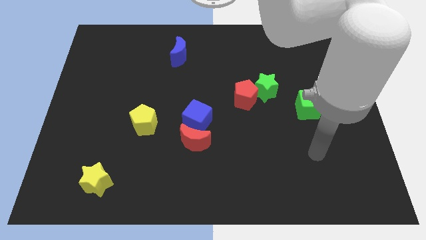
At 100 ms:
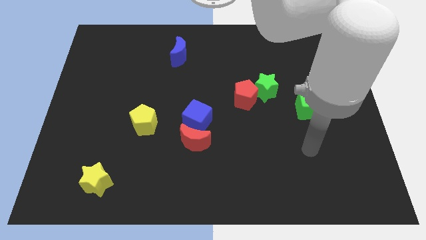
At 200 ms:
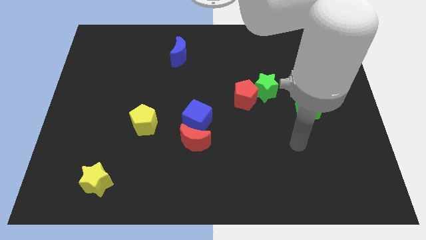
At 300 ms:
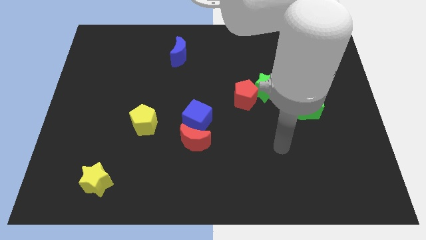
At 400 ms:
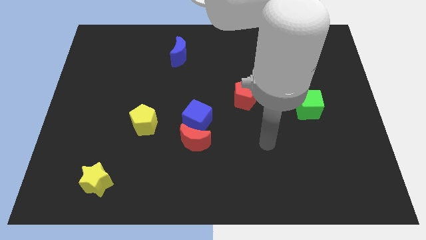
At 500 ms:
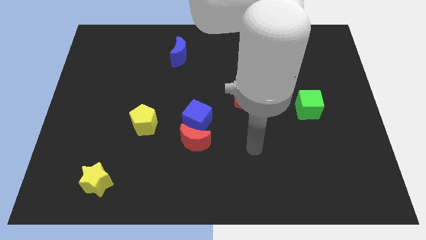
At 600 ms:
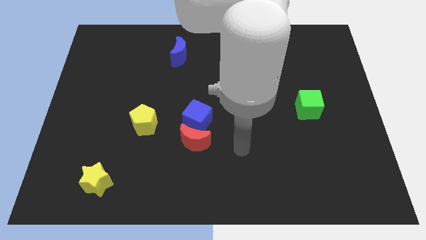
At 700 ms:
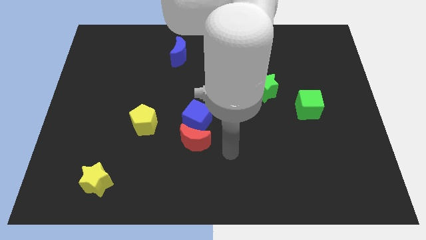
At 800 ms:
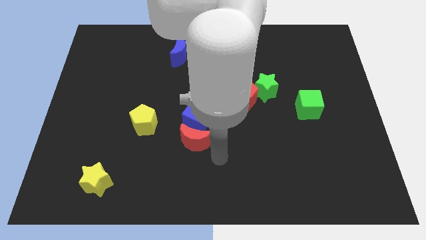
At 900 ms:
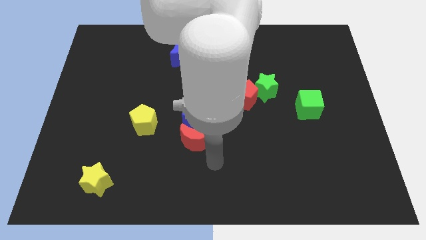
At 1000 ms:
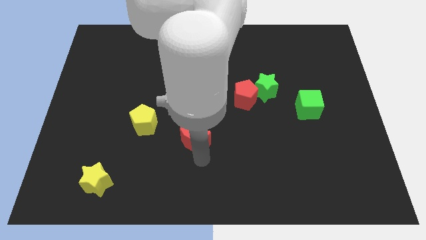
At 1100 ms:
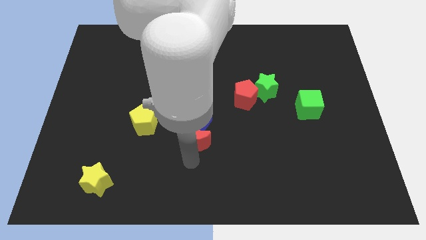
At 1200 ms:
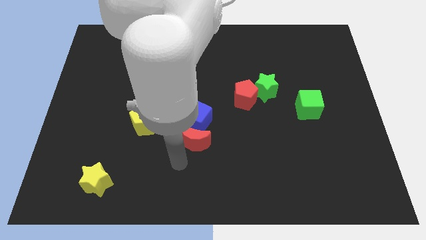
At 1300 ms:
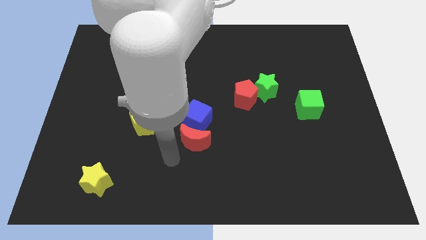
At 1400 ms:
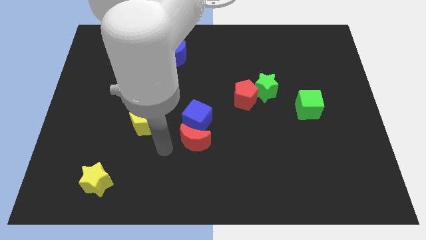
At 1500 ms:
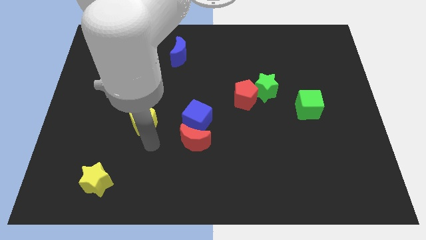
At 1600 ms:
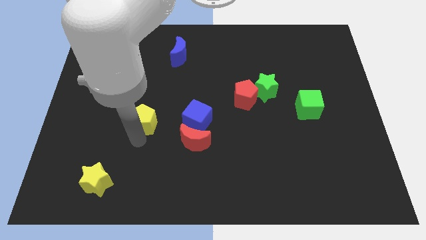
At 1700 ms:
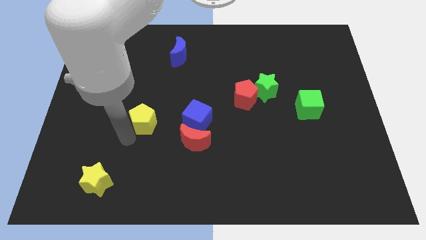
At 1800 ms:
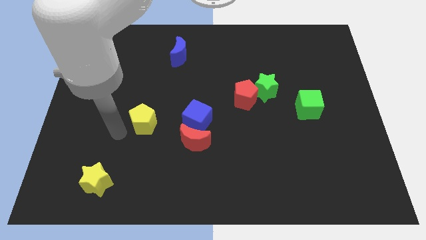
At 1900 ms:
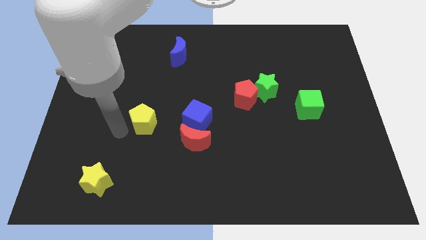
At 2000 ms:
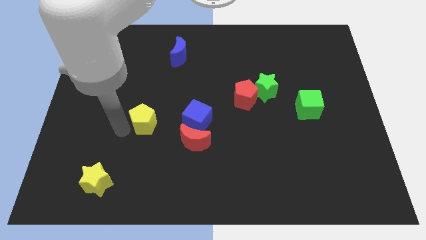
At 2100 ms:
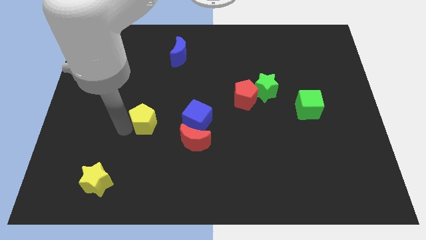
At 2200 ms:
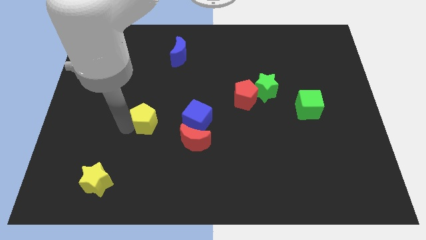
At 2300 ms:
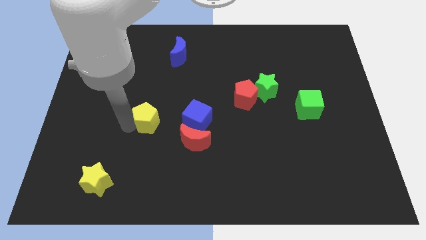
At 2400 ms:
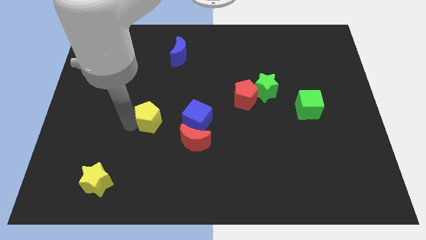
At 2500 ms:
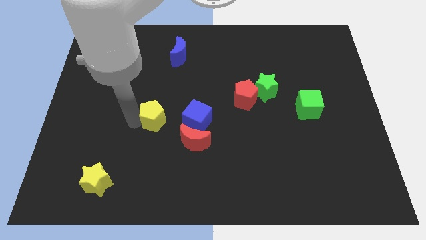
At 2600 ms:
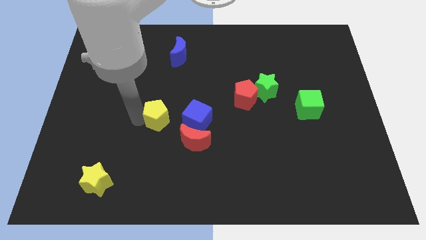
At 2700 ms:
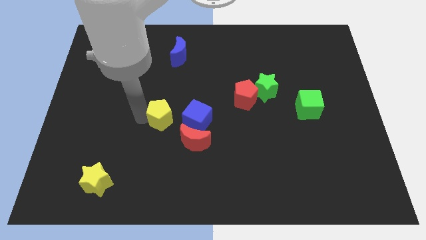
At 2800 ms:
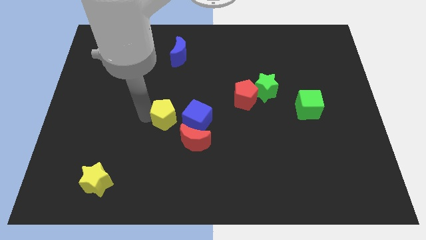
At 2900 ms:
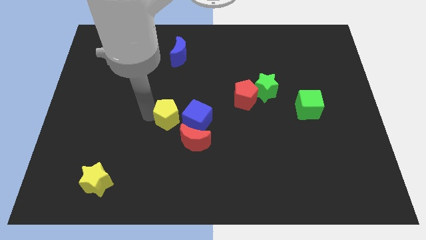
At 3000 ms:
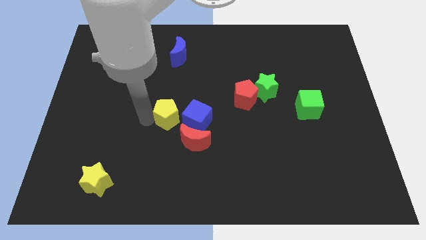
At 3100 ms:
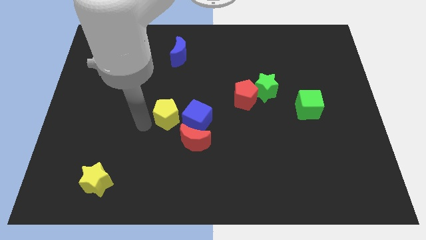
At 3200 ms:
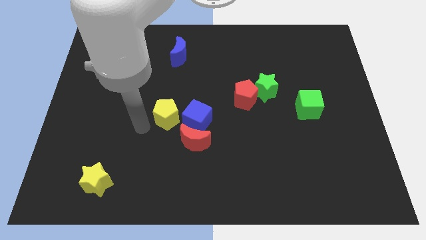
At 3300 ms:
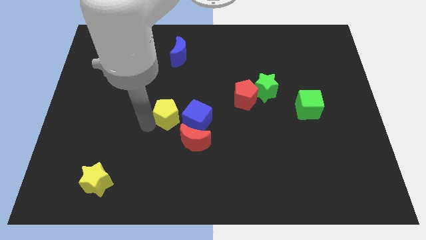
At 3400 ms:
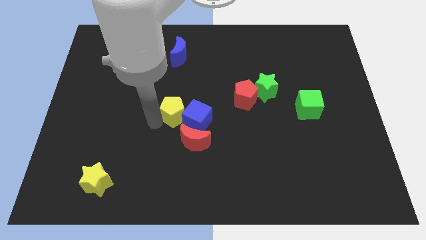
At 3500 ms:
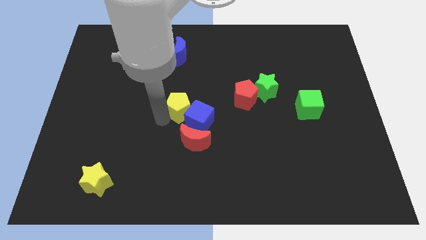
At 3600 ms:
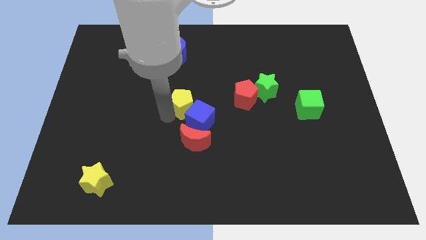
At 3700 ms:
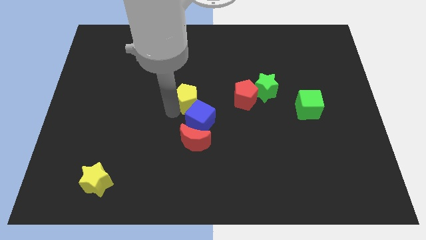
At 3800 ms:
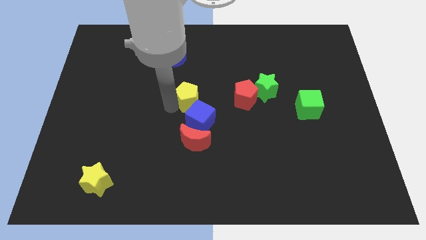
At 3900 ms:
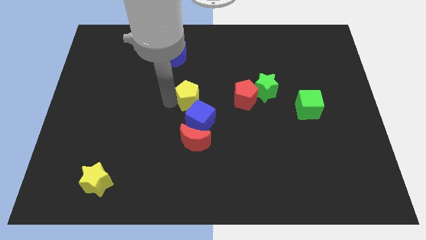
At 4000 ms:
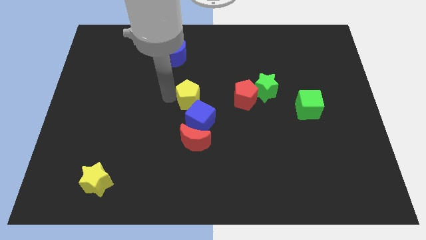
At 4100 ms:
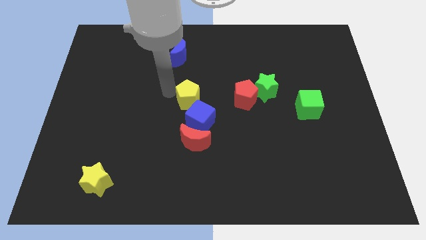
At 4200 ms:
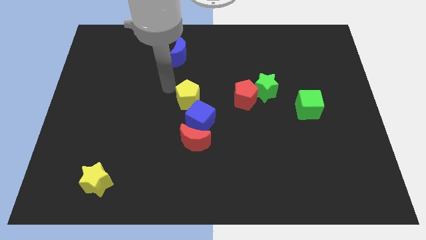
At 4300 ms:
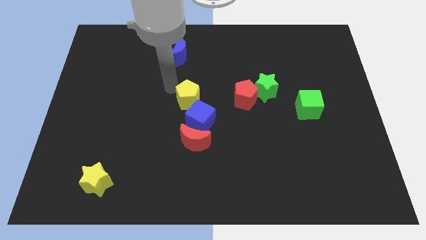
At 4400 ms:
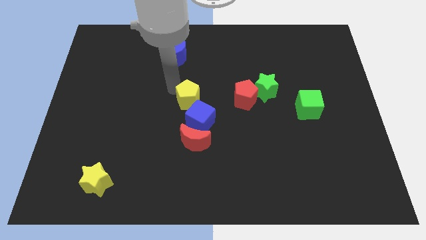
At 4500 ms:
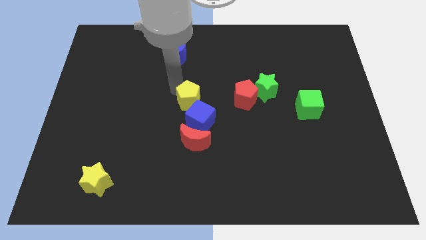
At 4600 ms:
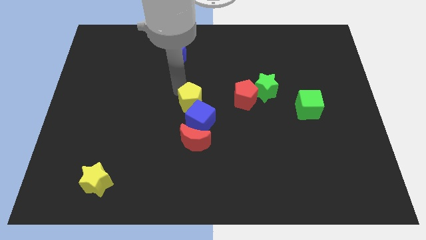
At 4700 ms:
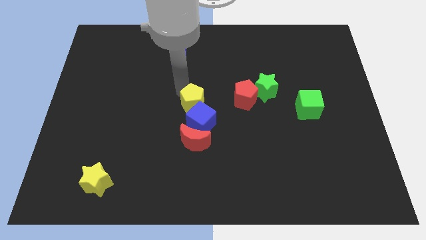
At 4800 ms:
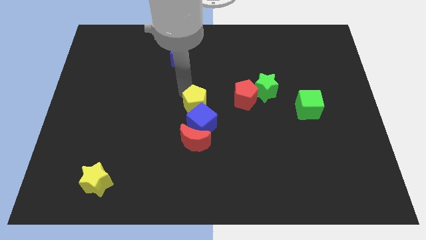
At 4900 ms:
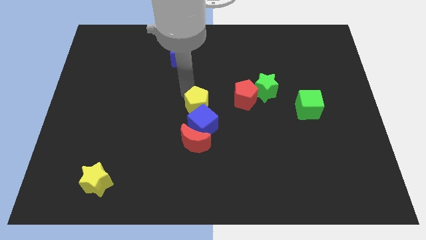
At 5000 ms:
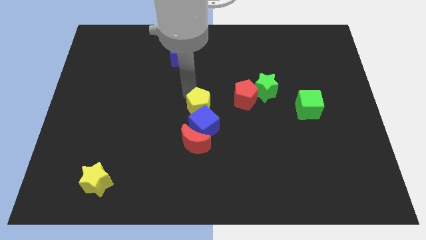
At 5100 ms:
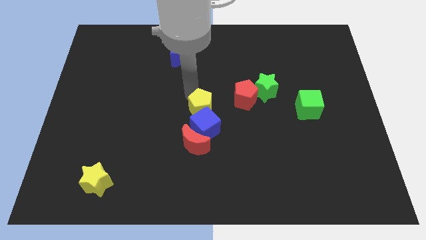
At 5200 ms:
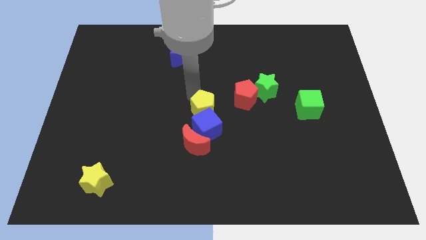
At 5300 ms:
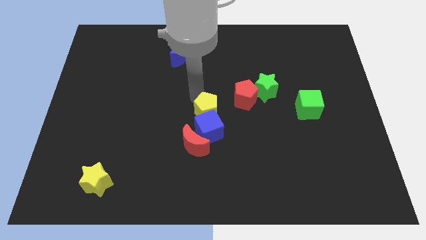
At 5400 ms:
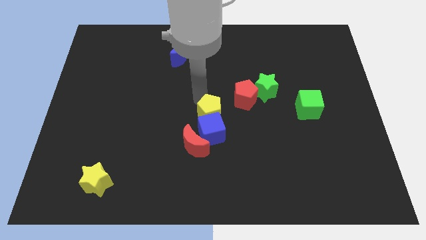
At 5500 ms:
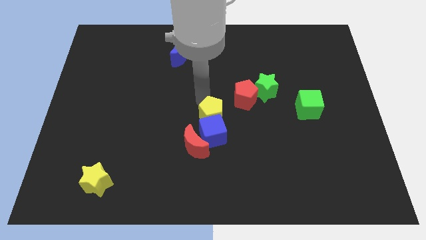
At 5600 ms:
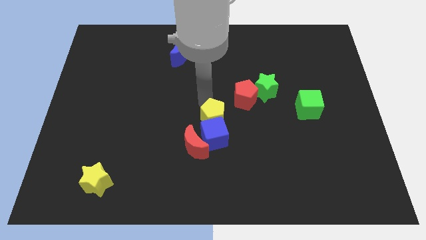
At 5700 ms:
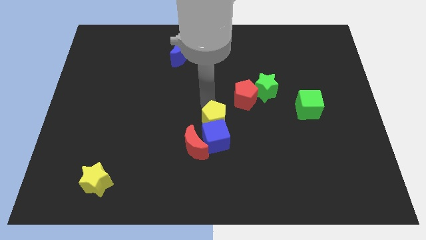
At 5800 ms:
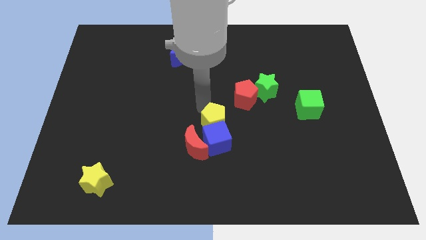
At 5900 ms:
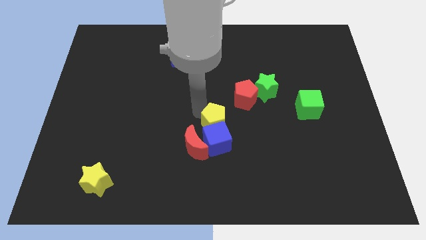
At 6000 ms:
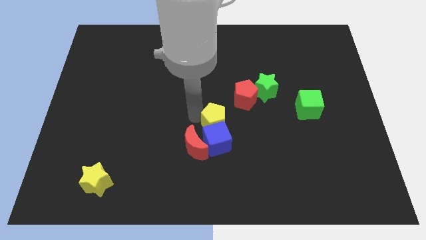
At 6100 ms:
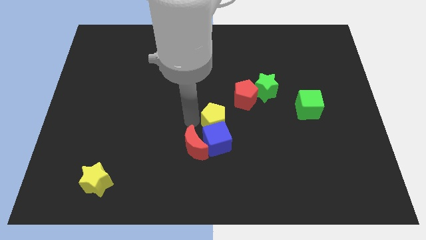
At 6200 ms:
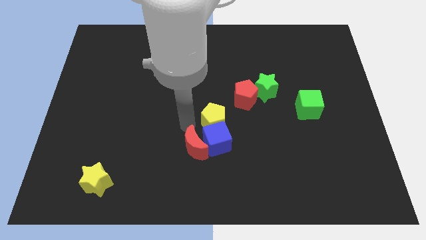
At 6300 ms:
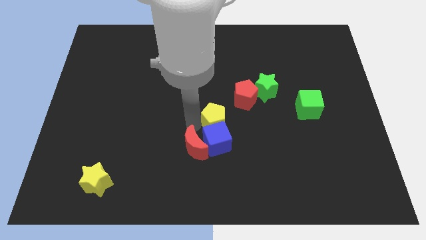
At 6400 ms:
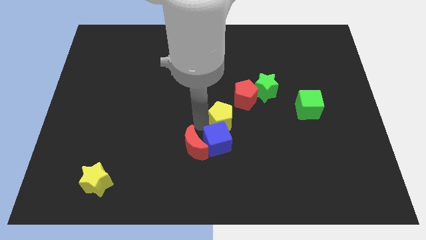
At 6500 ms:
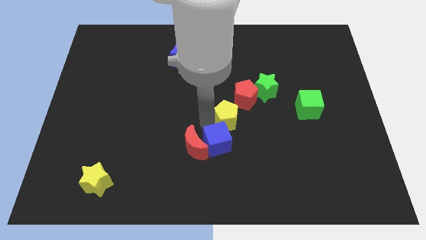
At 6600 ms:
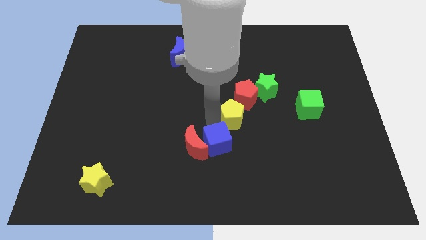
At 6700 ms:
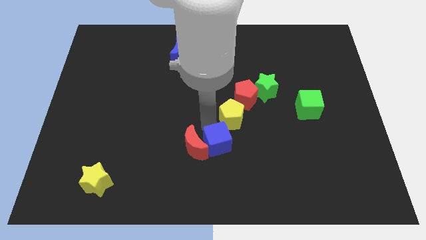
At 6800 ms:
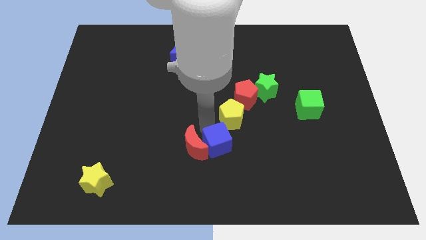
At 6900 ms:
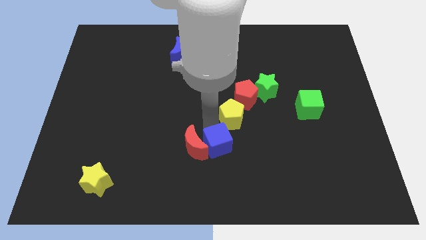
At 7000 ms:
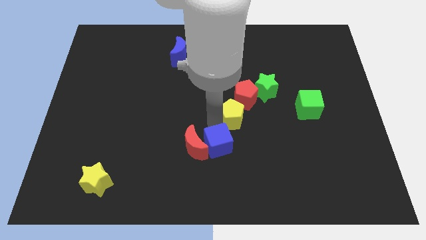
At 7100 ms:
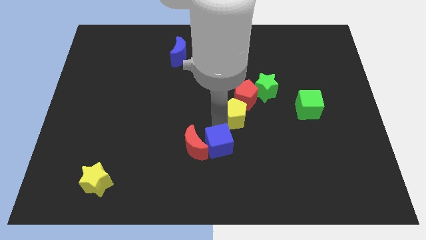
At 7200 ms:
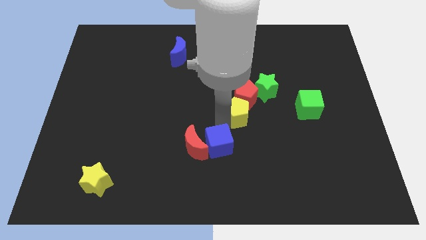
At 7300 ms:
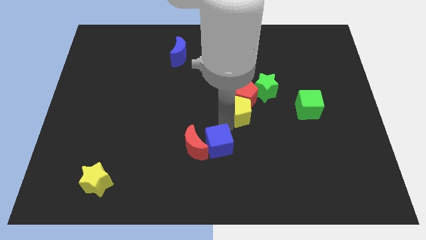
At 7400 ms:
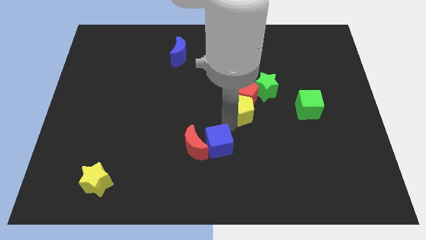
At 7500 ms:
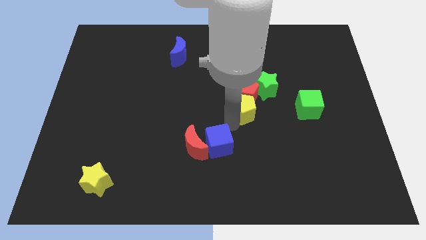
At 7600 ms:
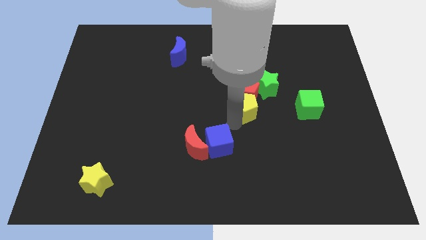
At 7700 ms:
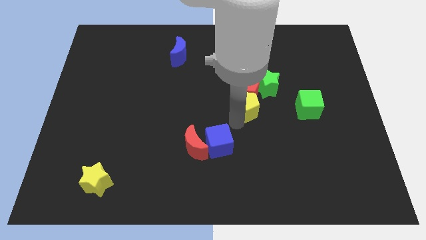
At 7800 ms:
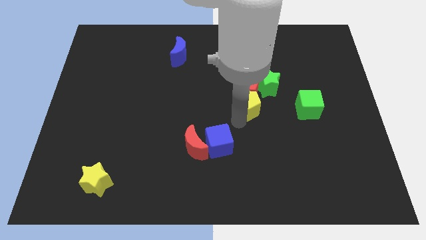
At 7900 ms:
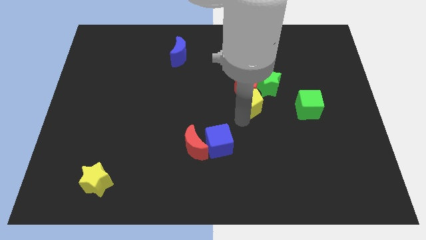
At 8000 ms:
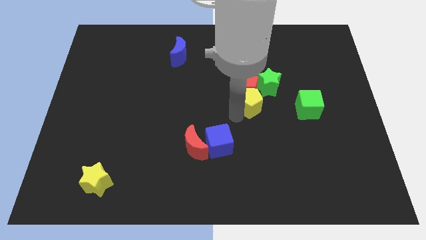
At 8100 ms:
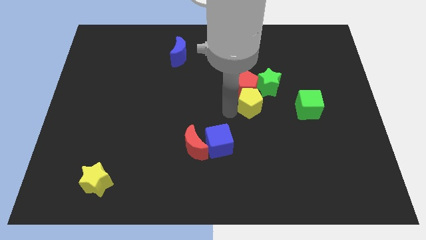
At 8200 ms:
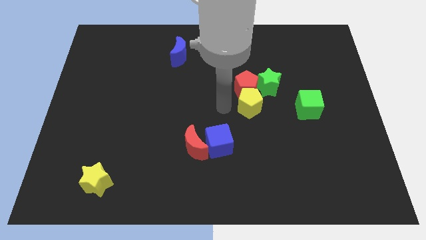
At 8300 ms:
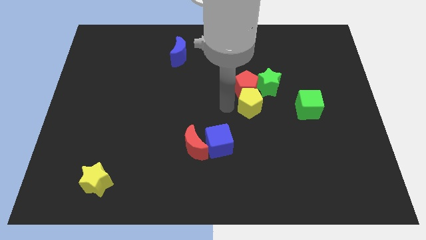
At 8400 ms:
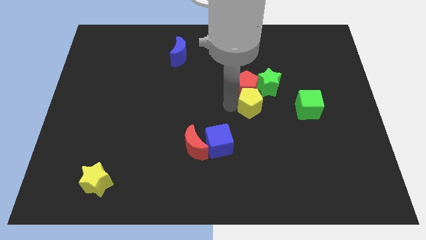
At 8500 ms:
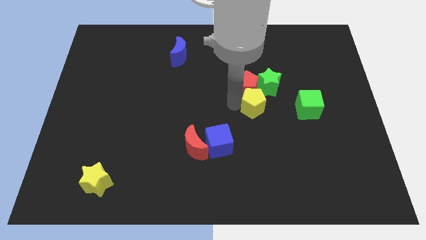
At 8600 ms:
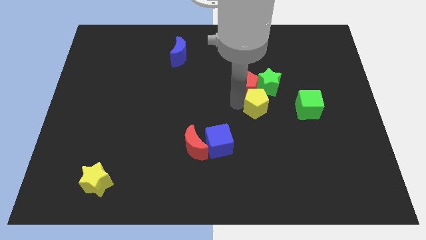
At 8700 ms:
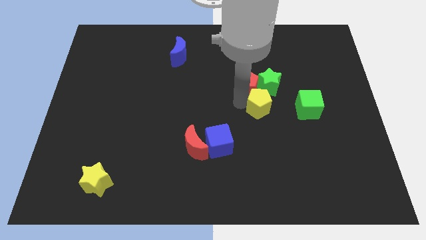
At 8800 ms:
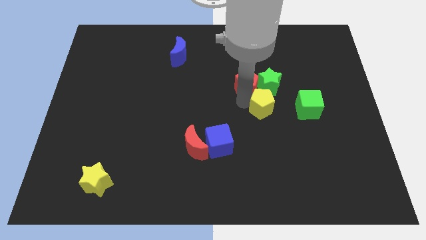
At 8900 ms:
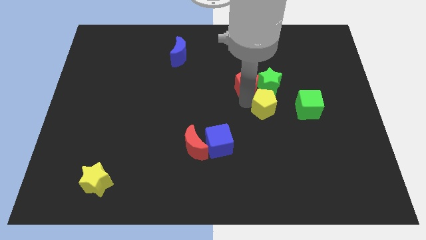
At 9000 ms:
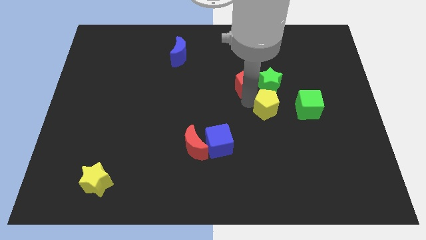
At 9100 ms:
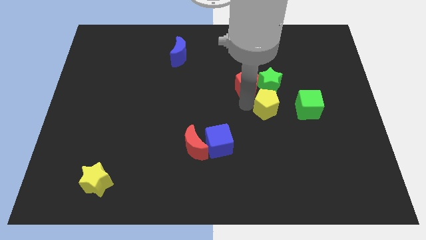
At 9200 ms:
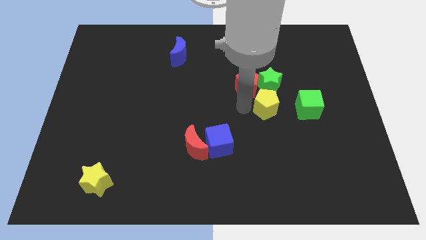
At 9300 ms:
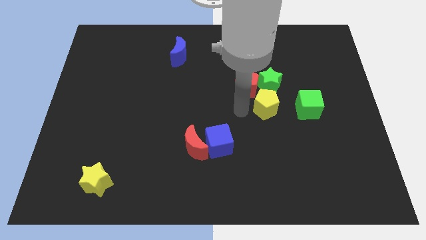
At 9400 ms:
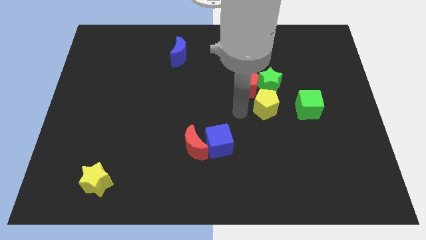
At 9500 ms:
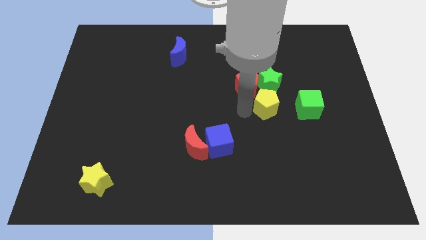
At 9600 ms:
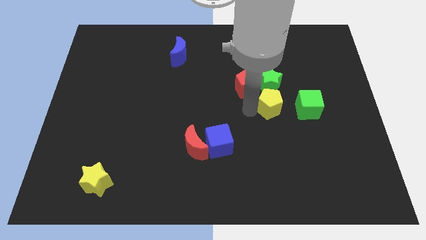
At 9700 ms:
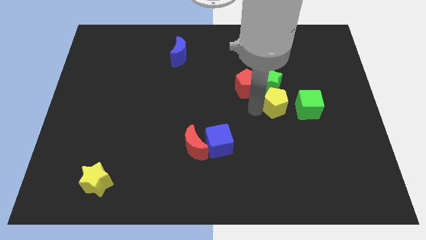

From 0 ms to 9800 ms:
slide the yellow pentagon to the top left of the green cube
